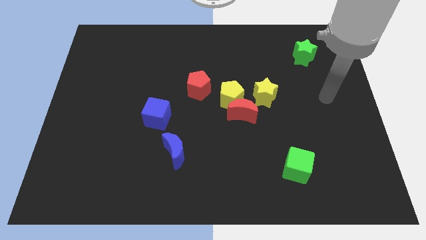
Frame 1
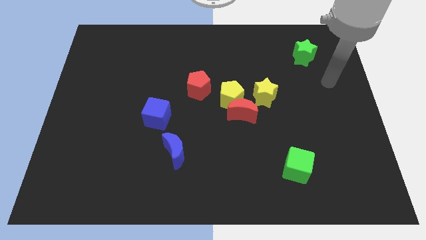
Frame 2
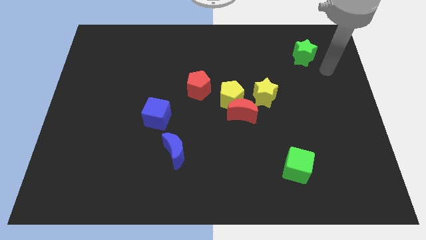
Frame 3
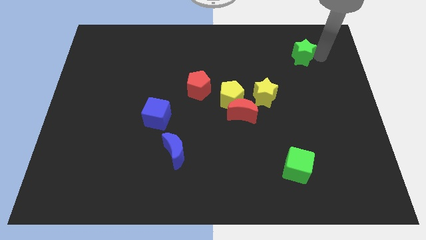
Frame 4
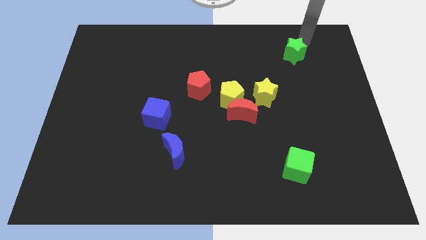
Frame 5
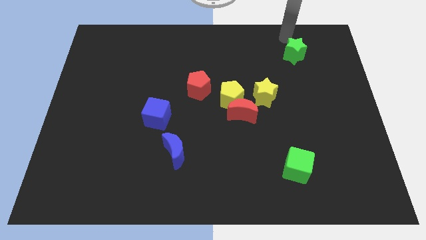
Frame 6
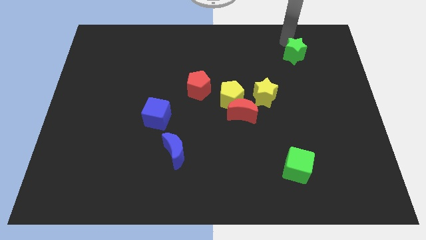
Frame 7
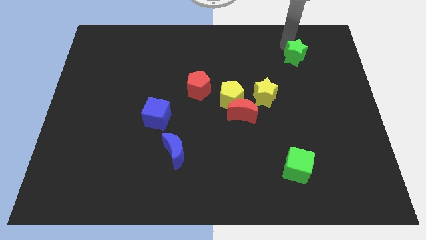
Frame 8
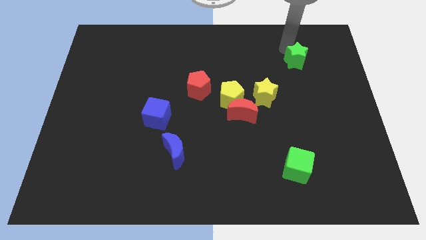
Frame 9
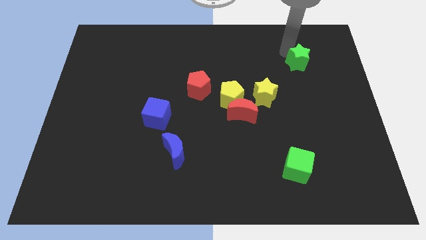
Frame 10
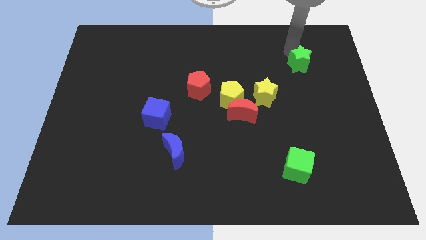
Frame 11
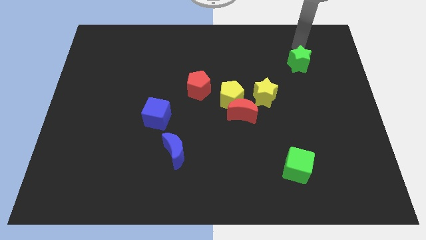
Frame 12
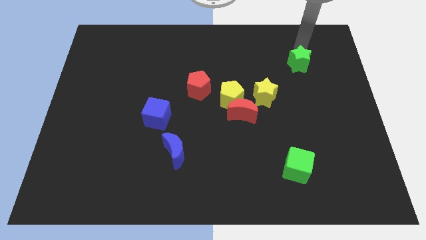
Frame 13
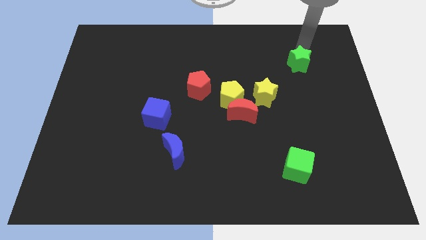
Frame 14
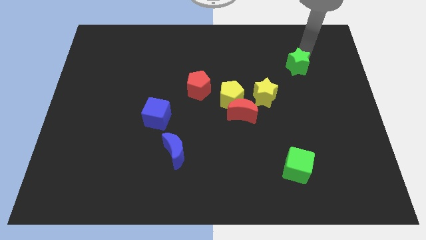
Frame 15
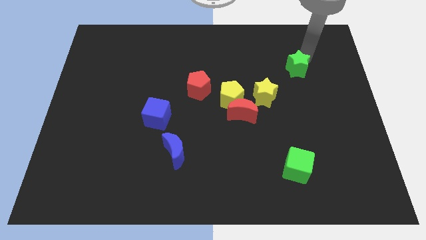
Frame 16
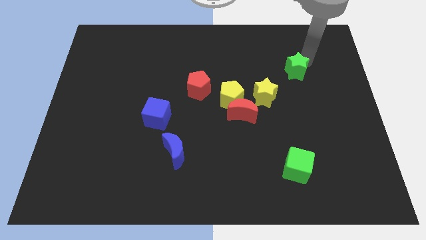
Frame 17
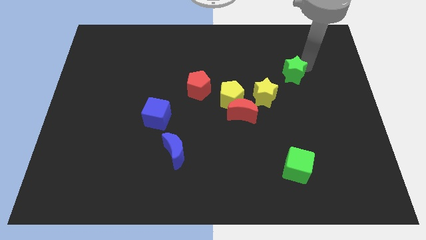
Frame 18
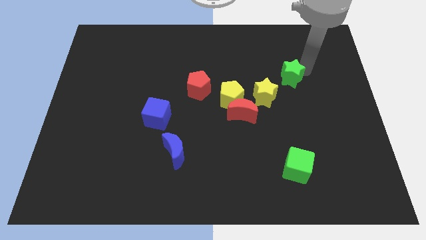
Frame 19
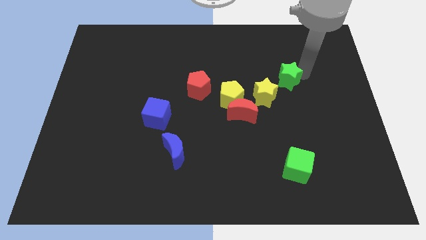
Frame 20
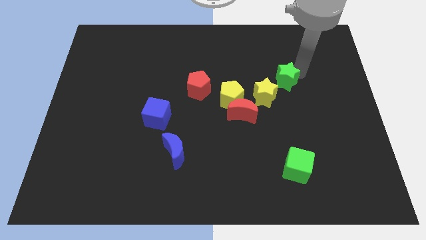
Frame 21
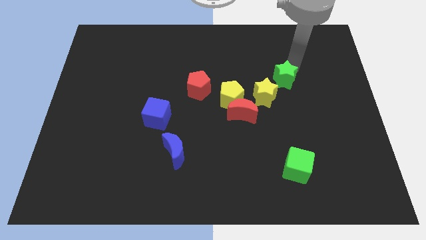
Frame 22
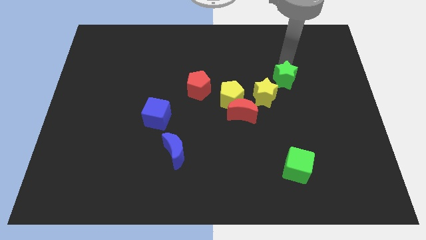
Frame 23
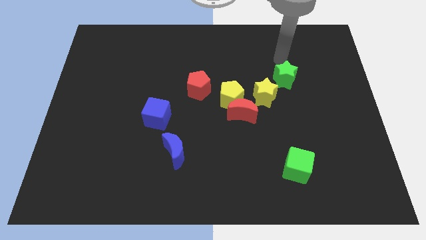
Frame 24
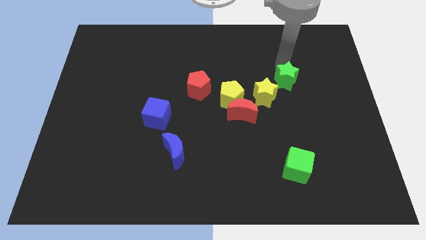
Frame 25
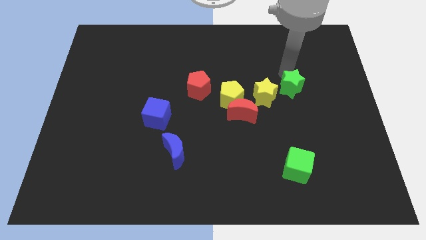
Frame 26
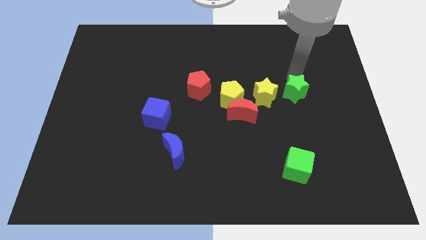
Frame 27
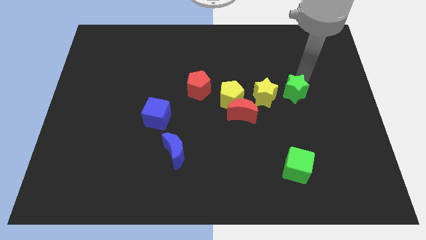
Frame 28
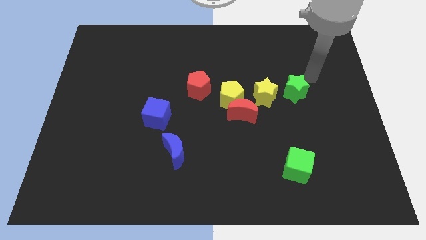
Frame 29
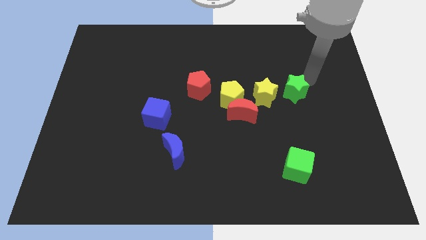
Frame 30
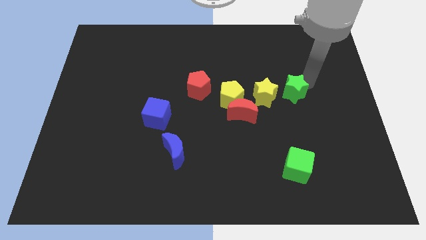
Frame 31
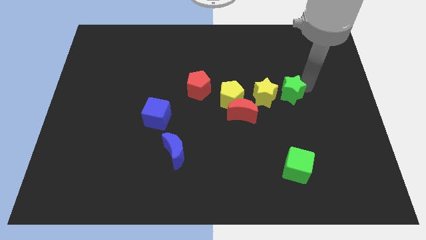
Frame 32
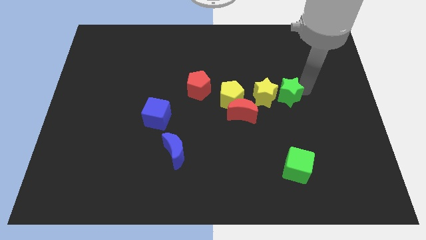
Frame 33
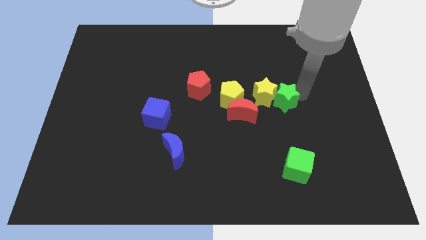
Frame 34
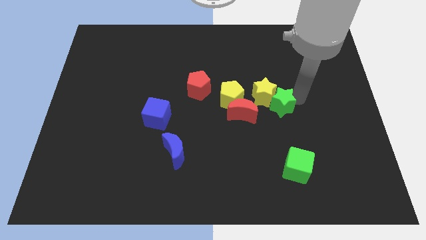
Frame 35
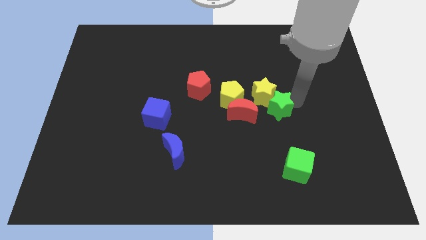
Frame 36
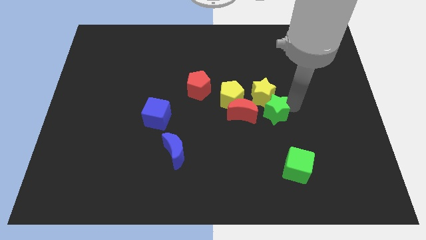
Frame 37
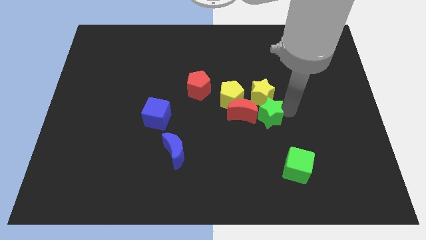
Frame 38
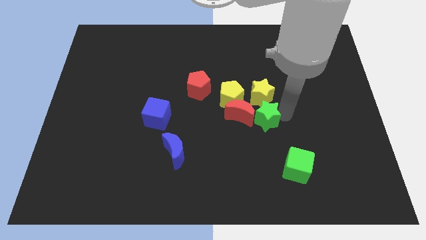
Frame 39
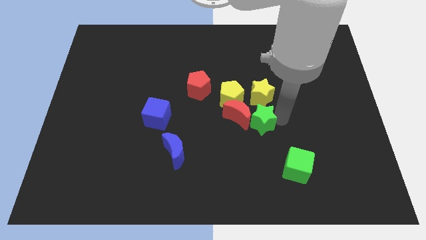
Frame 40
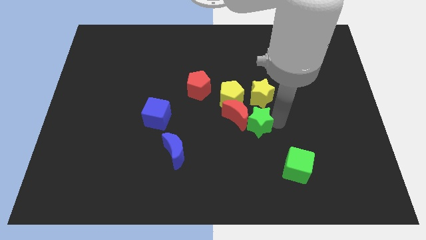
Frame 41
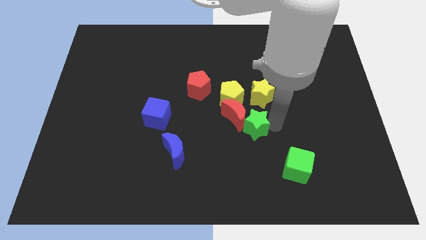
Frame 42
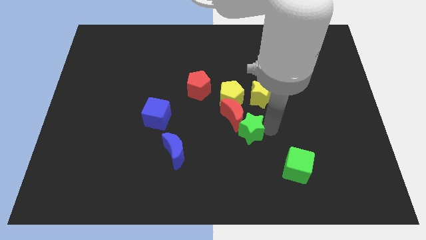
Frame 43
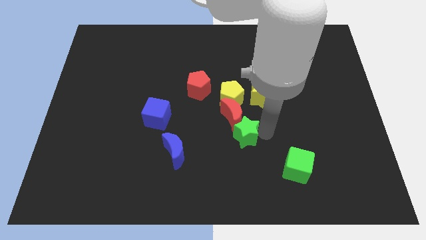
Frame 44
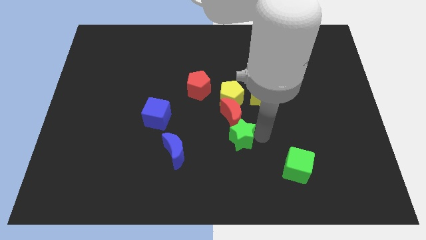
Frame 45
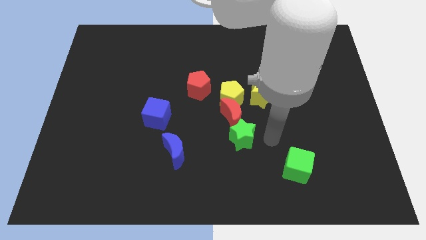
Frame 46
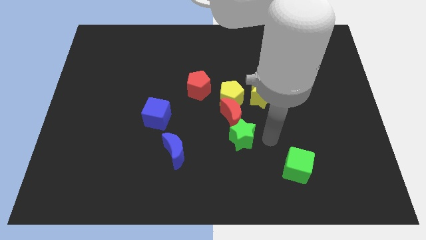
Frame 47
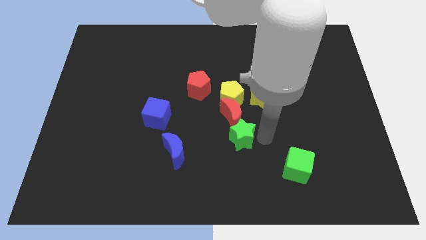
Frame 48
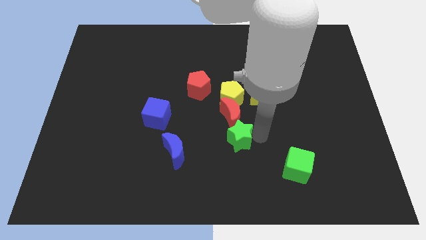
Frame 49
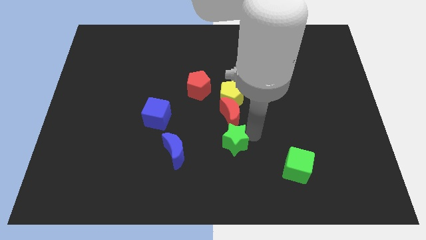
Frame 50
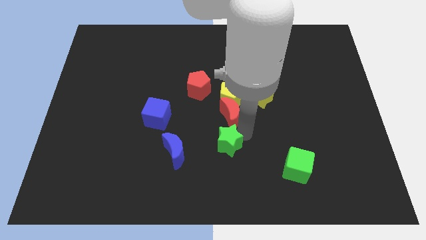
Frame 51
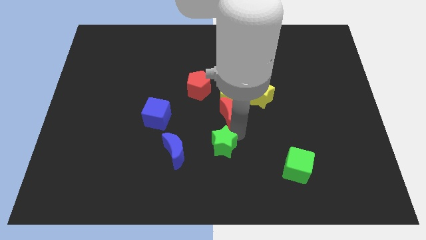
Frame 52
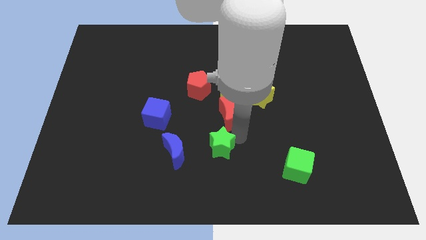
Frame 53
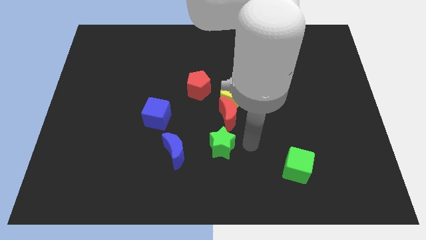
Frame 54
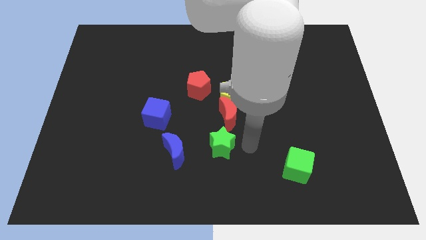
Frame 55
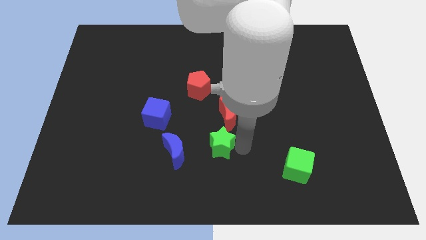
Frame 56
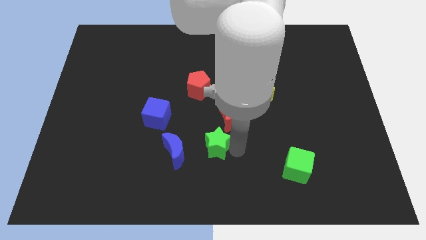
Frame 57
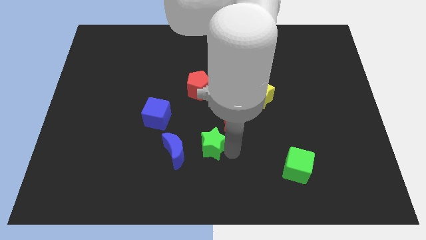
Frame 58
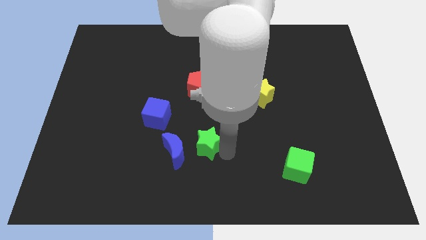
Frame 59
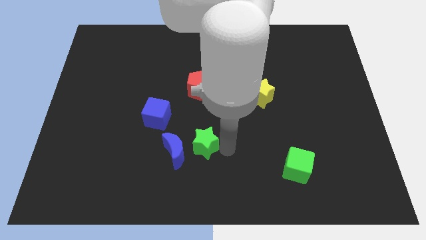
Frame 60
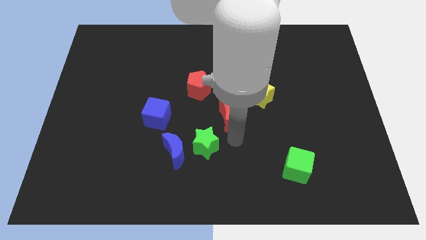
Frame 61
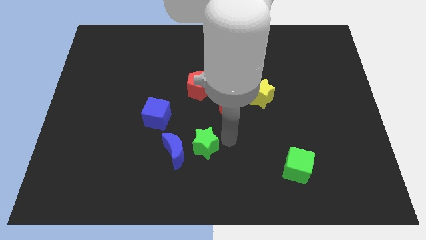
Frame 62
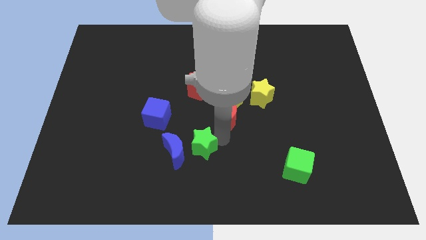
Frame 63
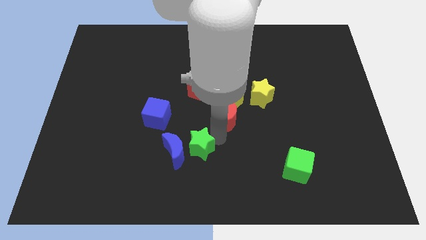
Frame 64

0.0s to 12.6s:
put the green star close to the blue moon
